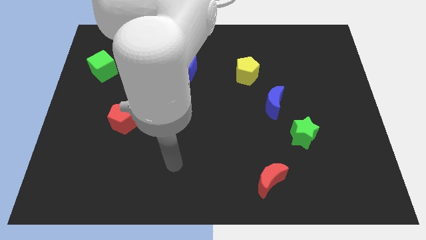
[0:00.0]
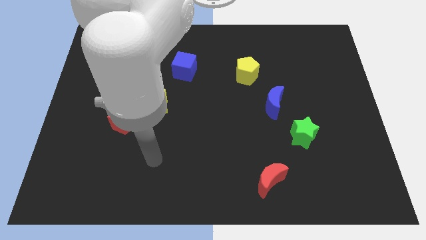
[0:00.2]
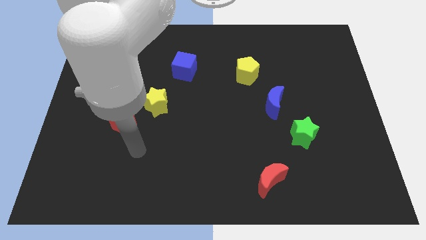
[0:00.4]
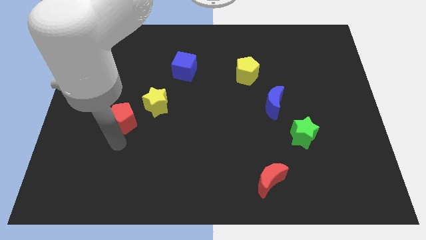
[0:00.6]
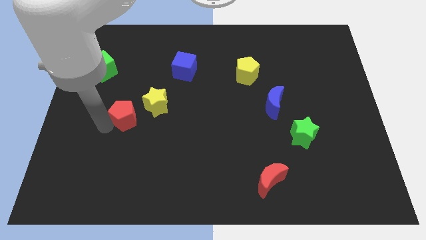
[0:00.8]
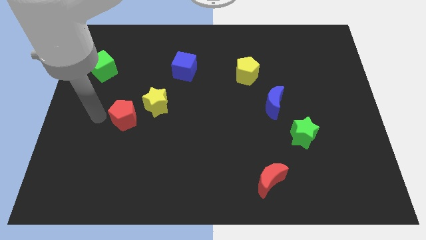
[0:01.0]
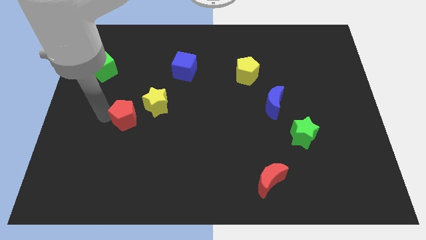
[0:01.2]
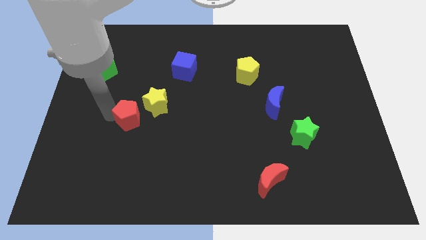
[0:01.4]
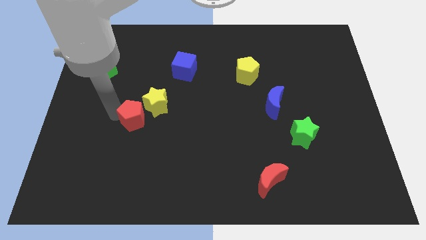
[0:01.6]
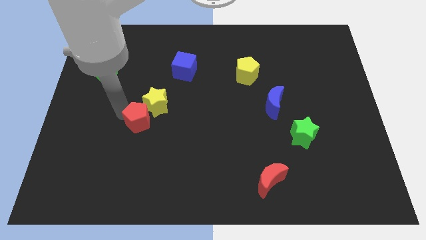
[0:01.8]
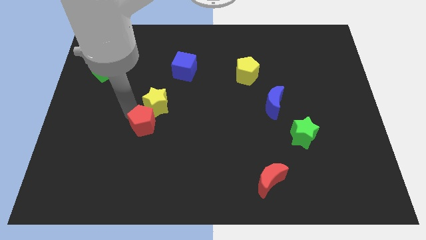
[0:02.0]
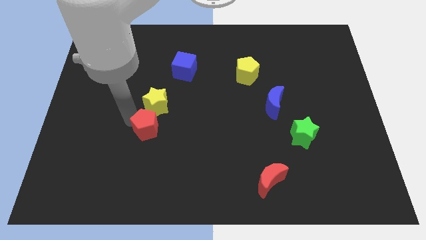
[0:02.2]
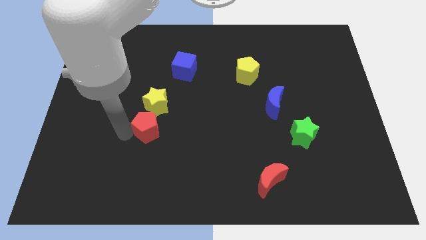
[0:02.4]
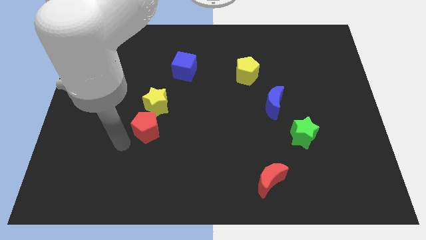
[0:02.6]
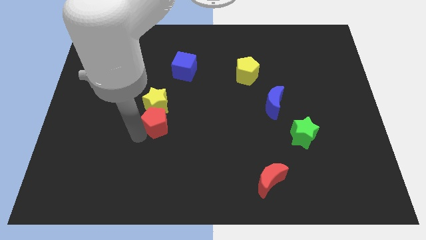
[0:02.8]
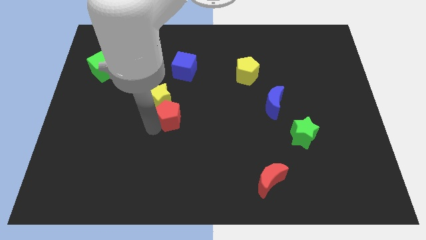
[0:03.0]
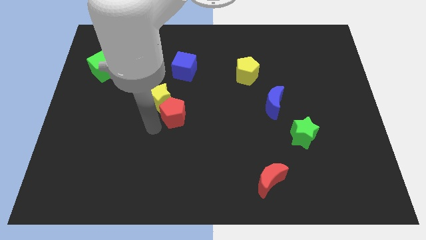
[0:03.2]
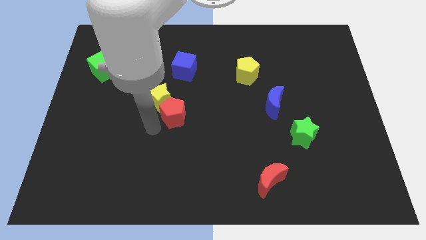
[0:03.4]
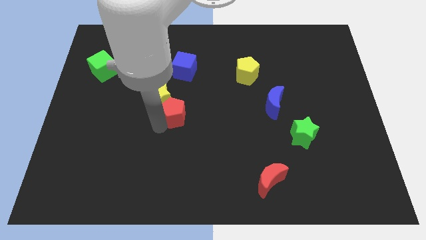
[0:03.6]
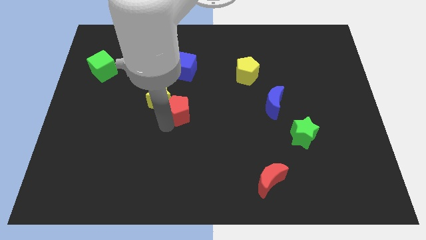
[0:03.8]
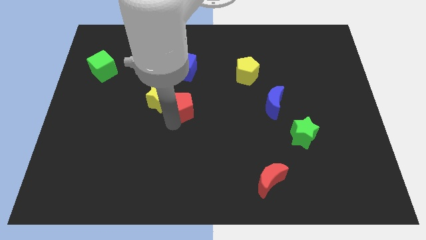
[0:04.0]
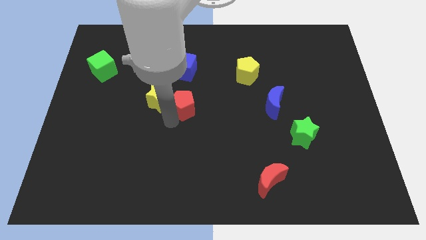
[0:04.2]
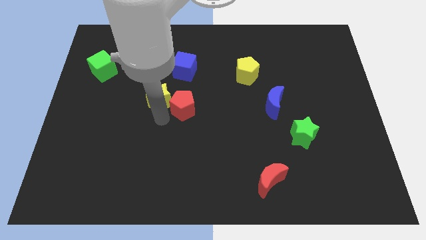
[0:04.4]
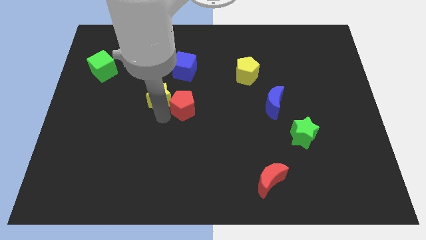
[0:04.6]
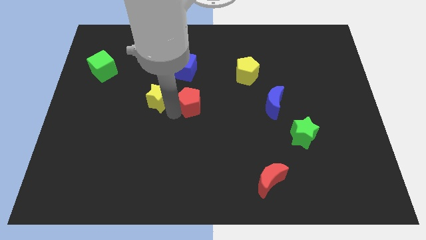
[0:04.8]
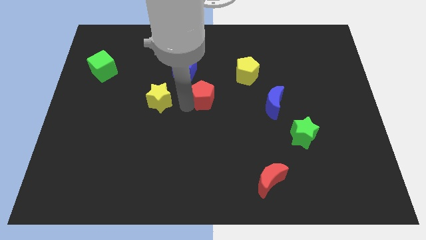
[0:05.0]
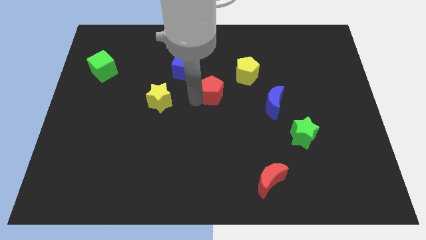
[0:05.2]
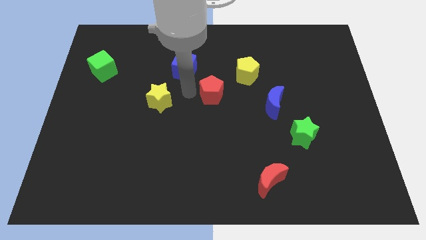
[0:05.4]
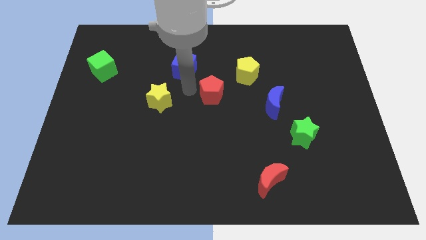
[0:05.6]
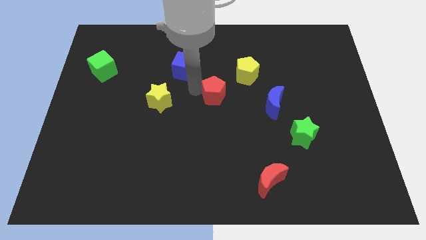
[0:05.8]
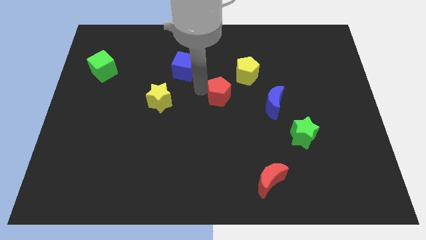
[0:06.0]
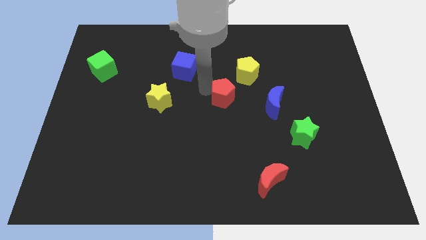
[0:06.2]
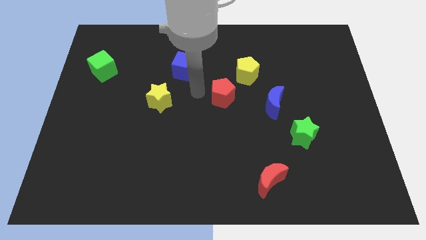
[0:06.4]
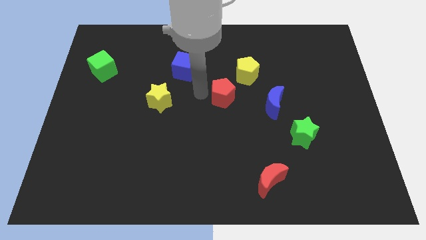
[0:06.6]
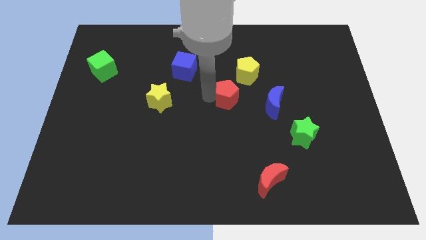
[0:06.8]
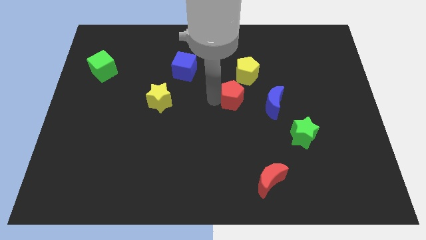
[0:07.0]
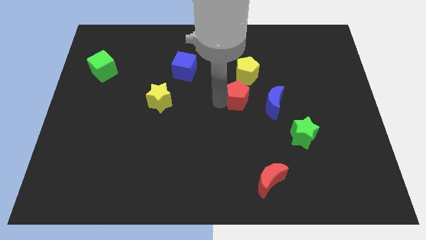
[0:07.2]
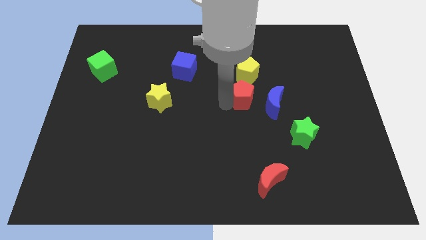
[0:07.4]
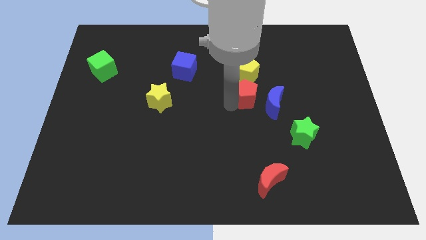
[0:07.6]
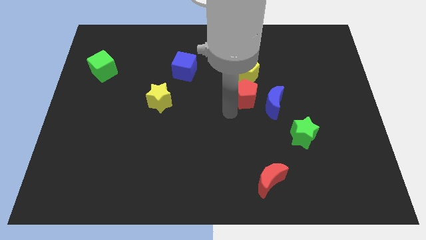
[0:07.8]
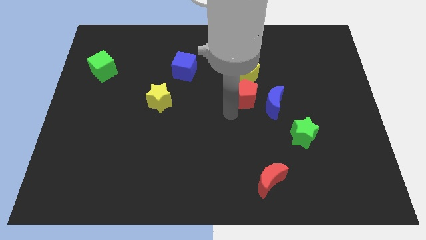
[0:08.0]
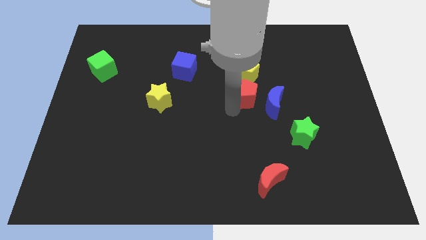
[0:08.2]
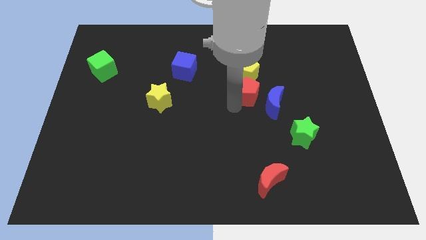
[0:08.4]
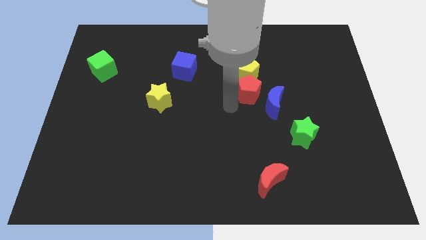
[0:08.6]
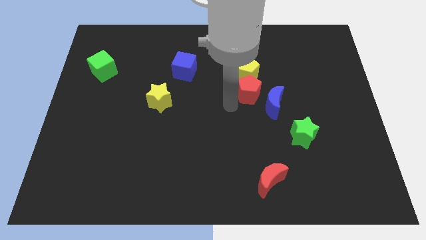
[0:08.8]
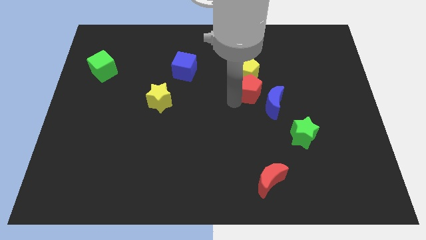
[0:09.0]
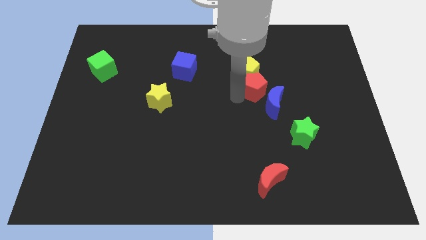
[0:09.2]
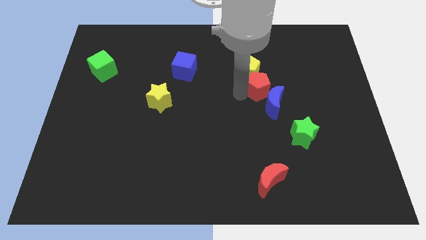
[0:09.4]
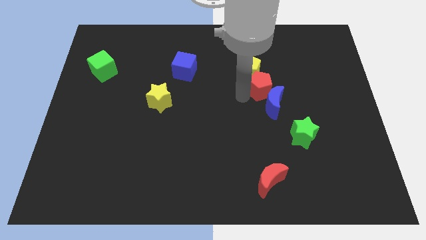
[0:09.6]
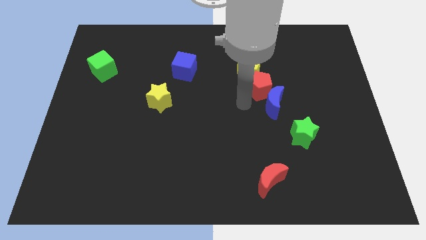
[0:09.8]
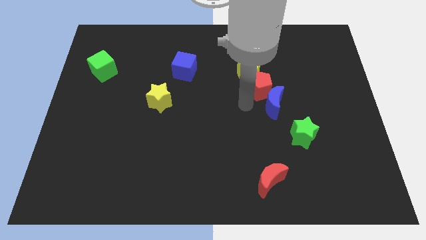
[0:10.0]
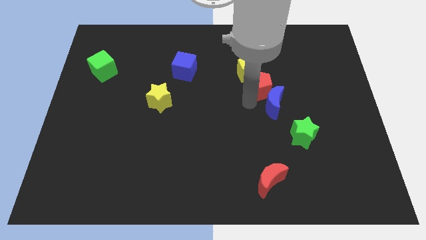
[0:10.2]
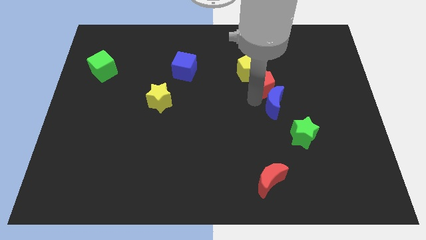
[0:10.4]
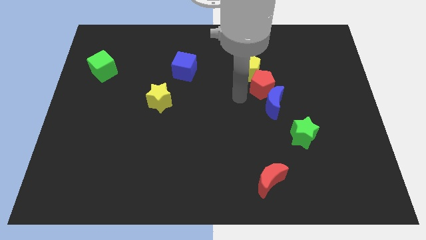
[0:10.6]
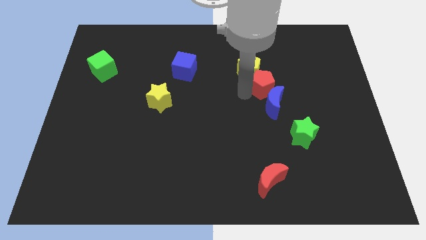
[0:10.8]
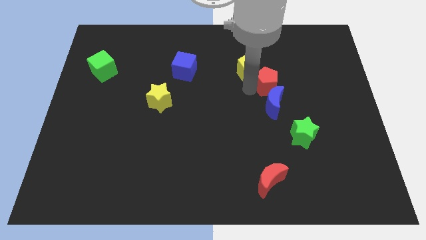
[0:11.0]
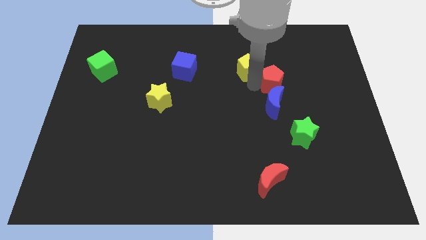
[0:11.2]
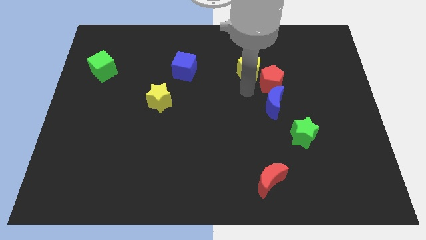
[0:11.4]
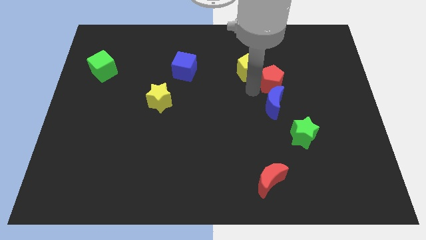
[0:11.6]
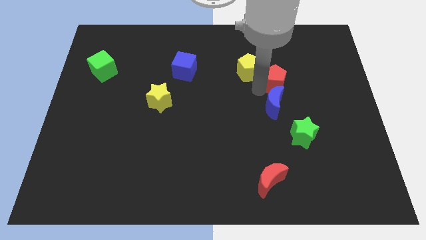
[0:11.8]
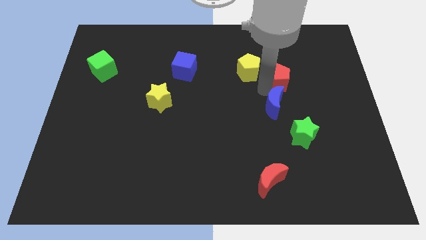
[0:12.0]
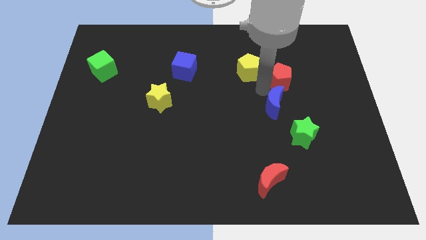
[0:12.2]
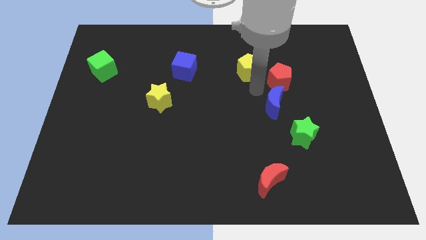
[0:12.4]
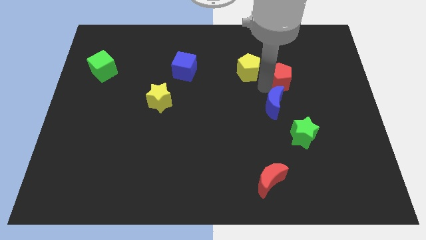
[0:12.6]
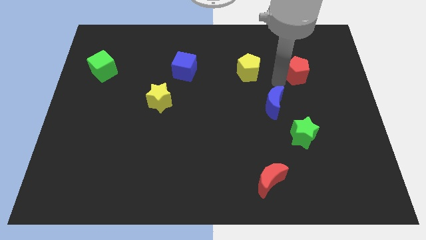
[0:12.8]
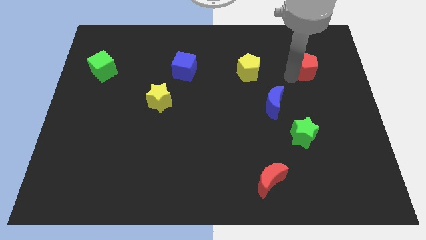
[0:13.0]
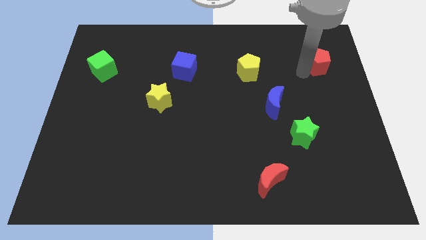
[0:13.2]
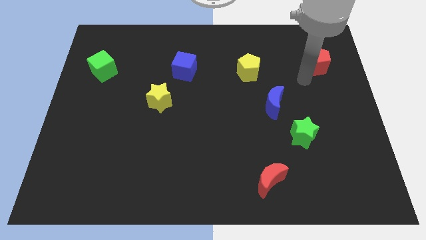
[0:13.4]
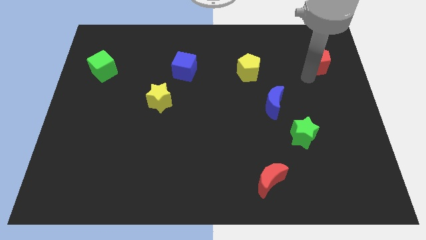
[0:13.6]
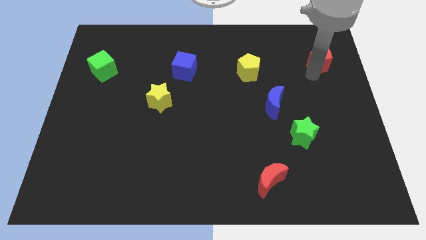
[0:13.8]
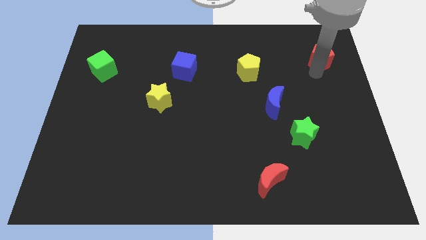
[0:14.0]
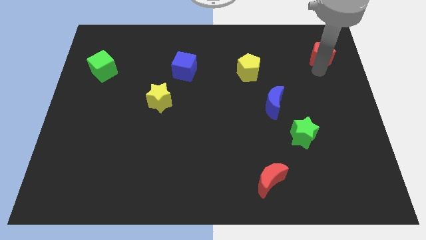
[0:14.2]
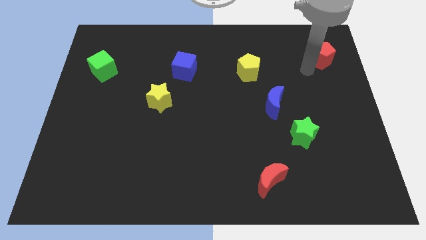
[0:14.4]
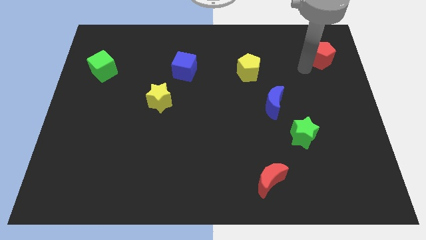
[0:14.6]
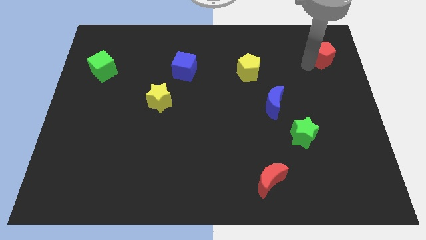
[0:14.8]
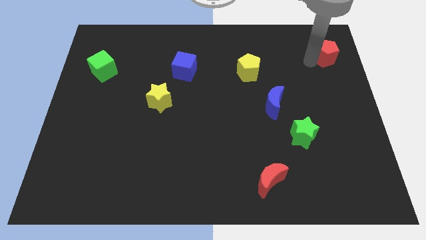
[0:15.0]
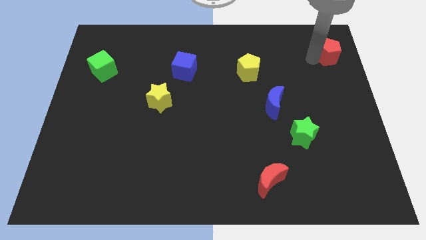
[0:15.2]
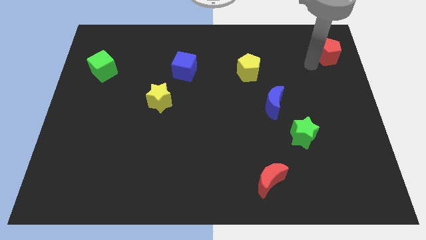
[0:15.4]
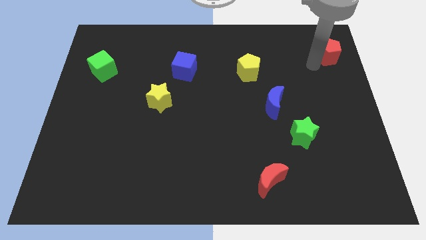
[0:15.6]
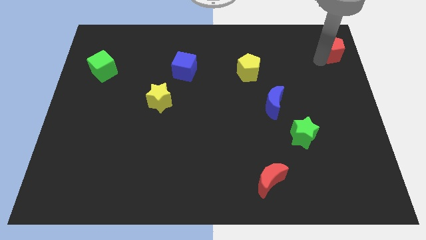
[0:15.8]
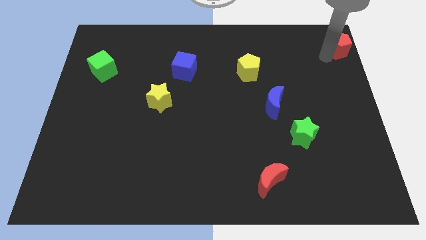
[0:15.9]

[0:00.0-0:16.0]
push the red pentagon to the top right
